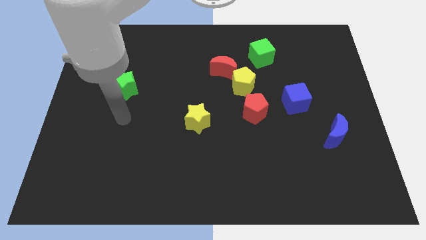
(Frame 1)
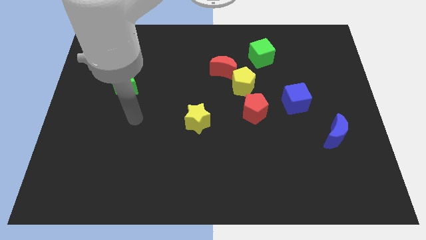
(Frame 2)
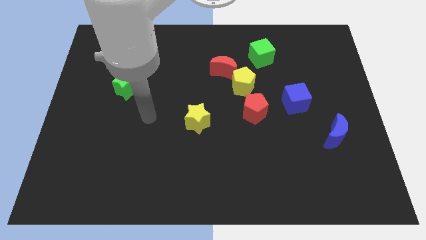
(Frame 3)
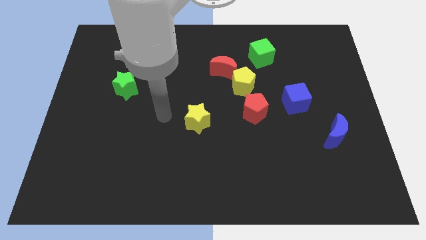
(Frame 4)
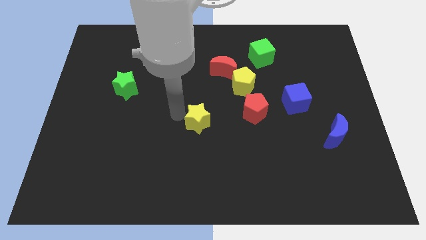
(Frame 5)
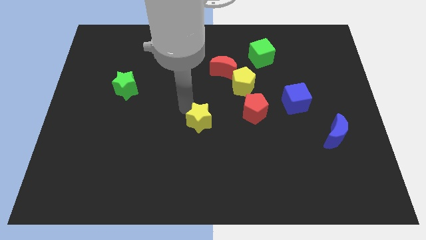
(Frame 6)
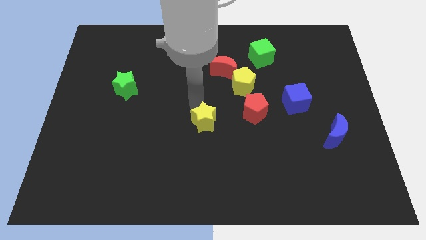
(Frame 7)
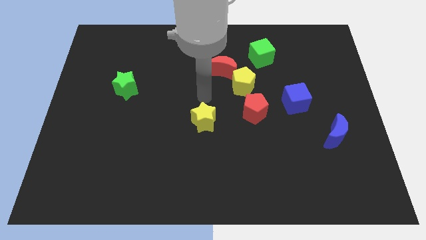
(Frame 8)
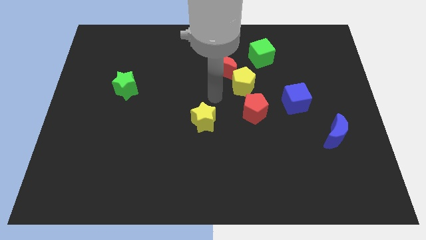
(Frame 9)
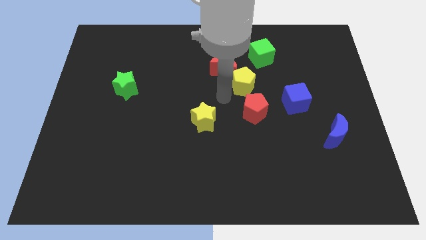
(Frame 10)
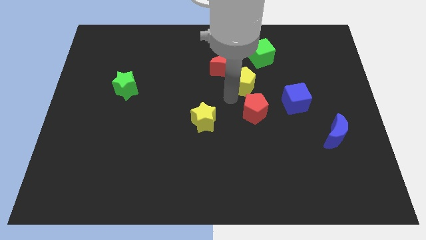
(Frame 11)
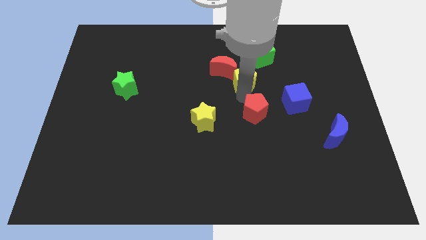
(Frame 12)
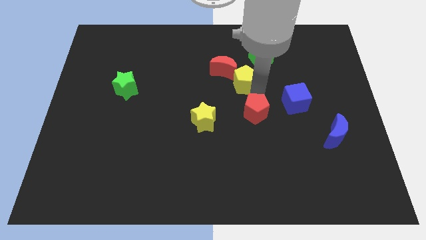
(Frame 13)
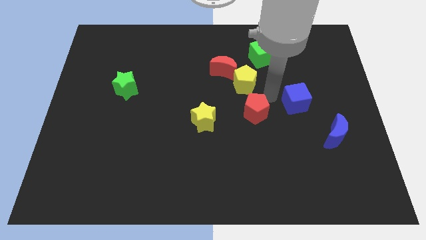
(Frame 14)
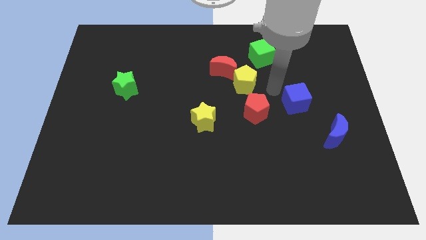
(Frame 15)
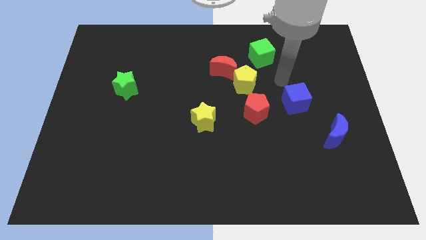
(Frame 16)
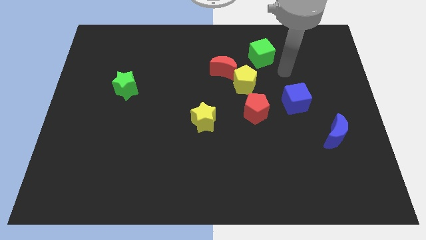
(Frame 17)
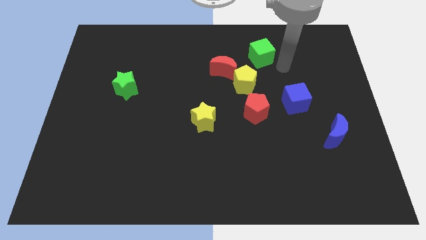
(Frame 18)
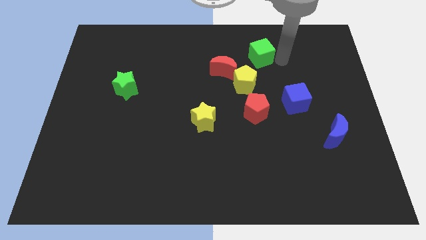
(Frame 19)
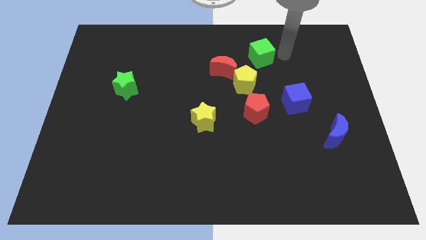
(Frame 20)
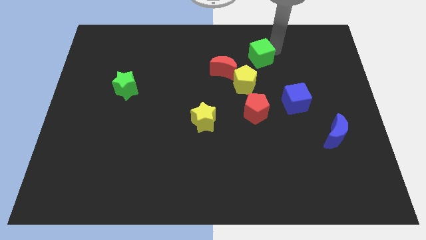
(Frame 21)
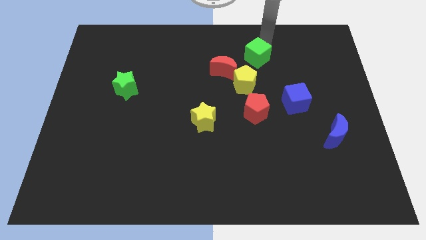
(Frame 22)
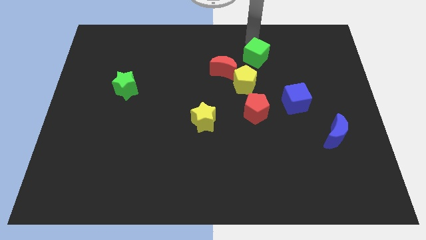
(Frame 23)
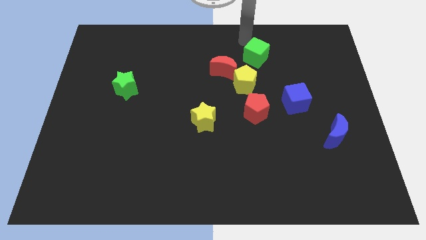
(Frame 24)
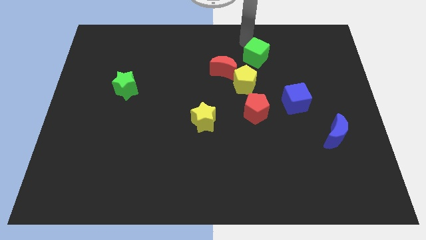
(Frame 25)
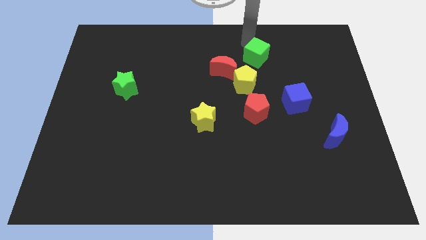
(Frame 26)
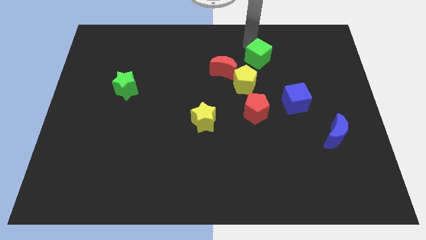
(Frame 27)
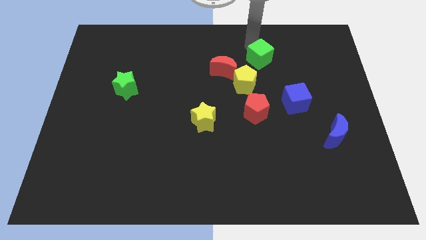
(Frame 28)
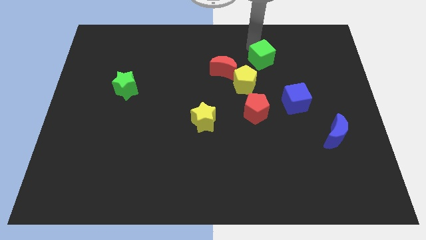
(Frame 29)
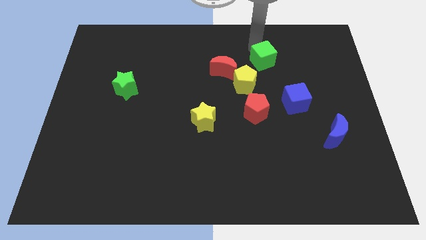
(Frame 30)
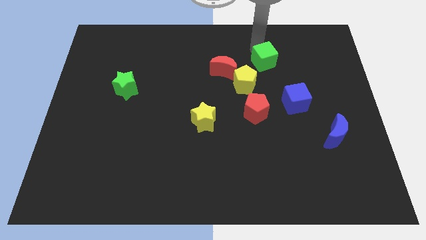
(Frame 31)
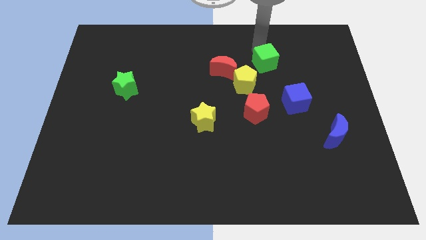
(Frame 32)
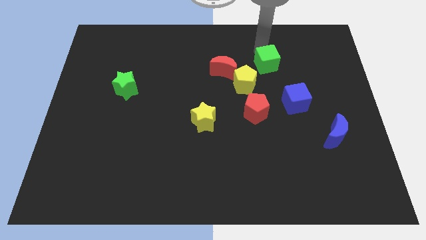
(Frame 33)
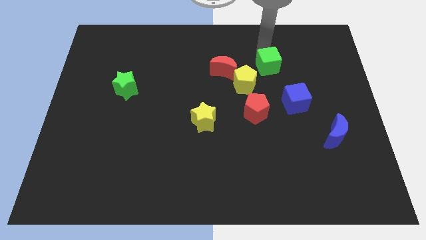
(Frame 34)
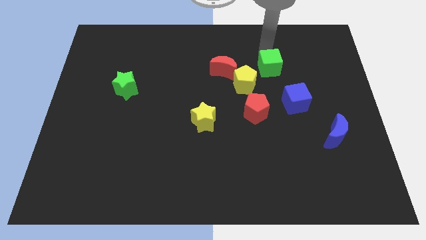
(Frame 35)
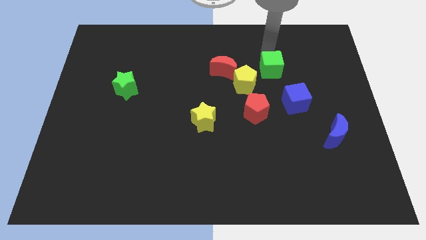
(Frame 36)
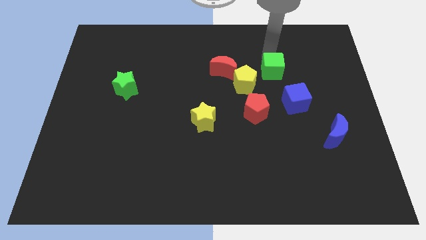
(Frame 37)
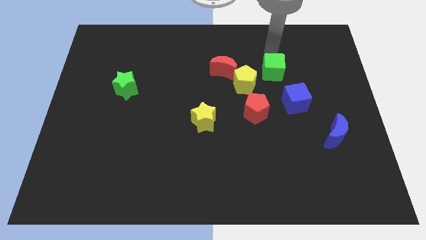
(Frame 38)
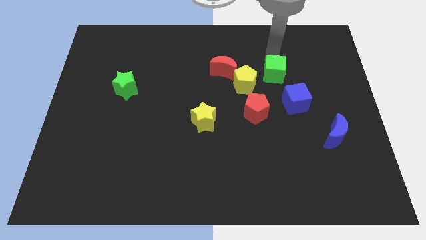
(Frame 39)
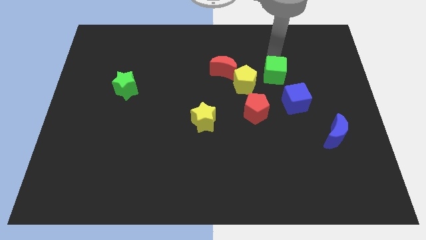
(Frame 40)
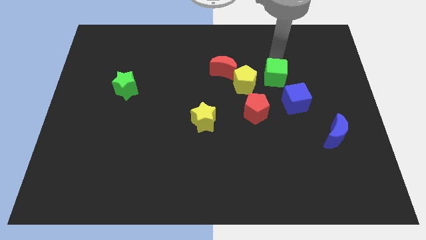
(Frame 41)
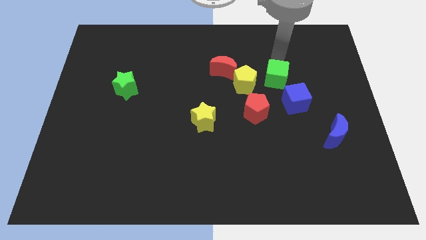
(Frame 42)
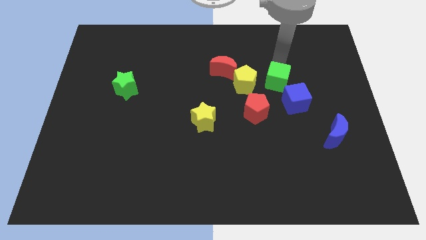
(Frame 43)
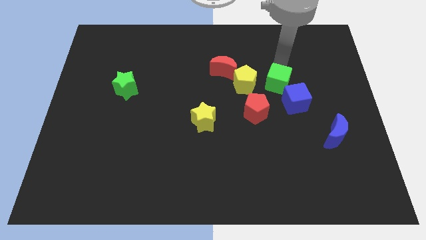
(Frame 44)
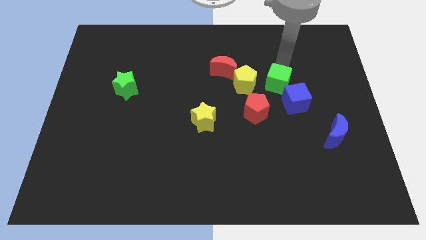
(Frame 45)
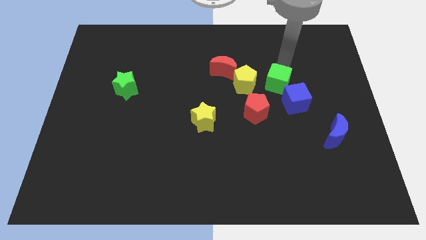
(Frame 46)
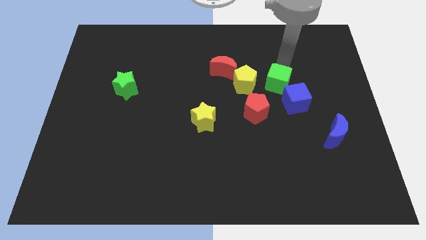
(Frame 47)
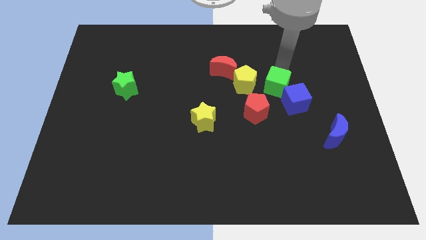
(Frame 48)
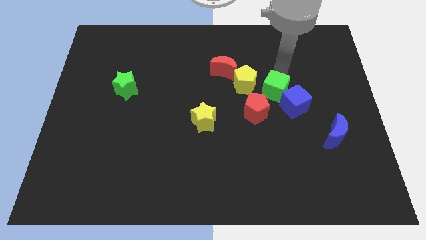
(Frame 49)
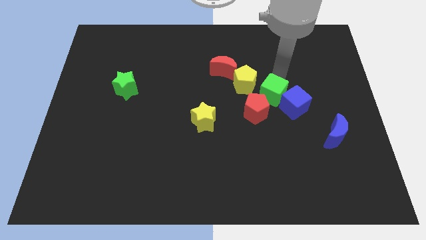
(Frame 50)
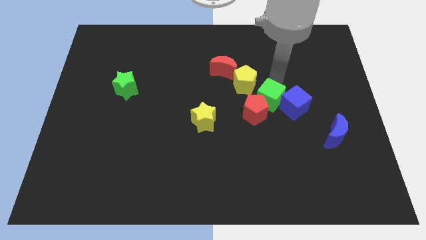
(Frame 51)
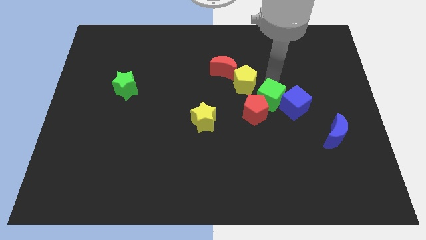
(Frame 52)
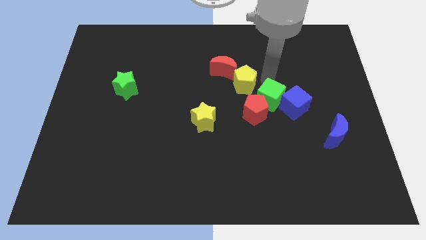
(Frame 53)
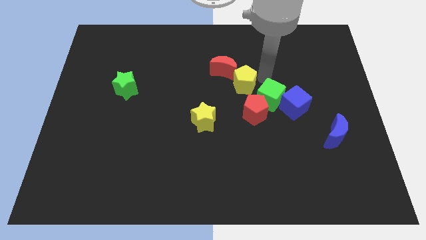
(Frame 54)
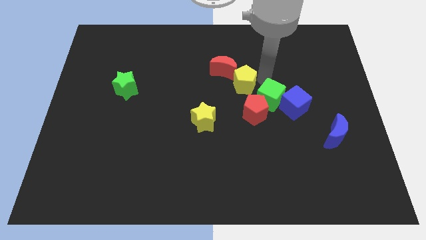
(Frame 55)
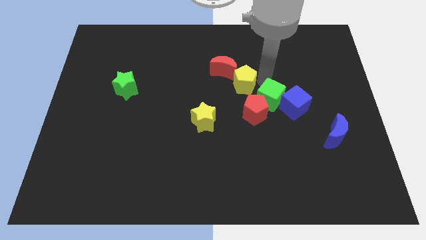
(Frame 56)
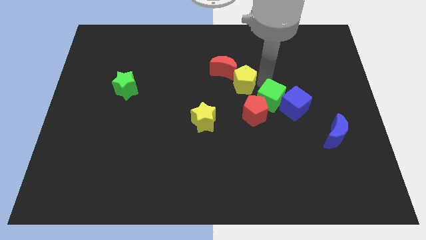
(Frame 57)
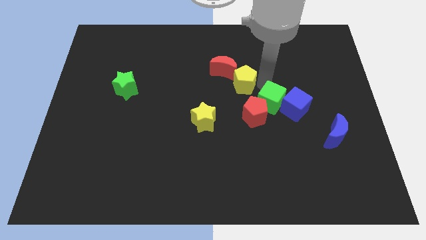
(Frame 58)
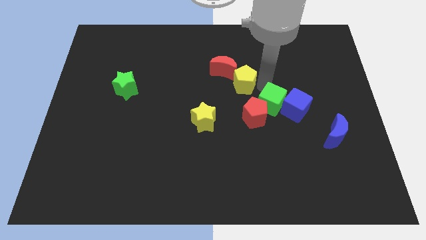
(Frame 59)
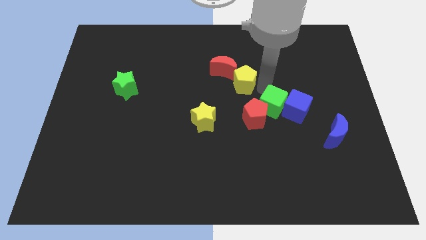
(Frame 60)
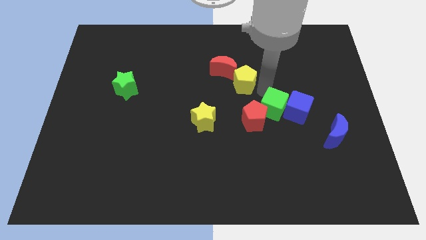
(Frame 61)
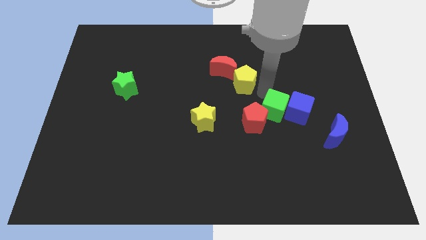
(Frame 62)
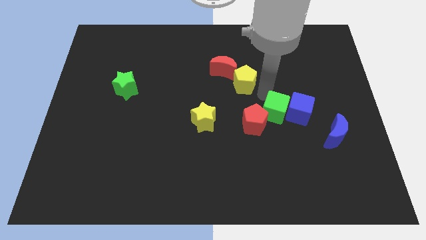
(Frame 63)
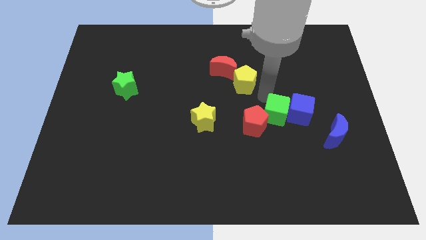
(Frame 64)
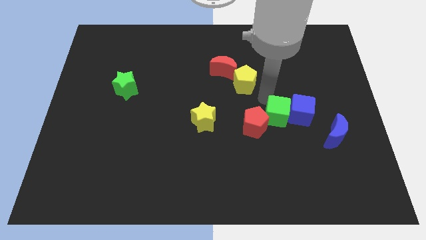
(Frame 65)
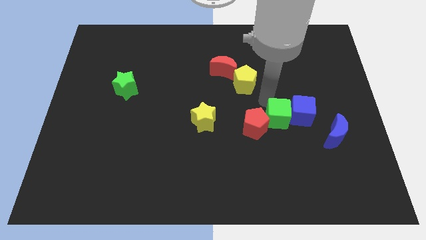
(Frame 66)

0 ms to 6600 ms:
slide the green cube down

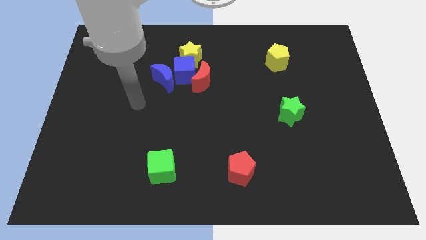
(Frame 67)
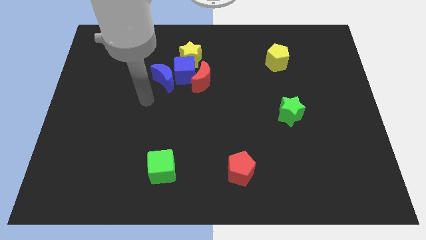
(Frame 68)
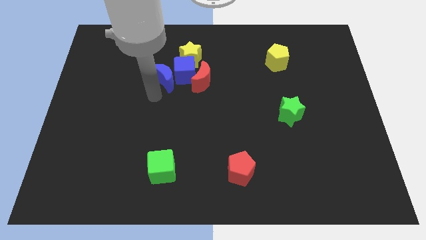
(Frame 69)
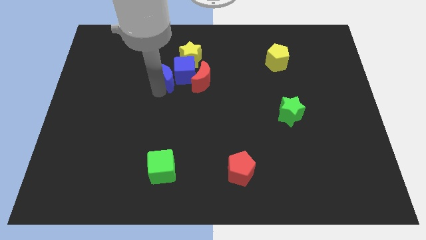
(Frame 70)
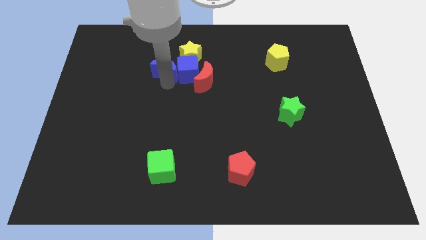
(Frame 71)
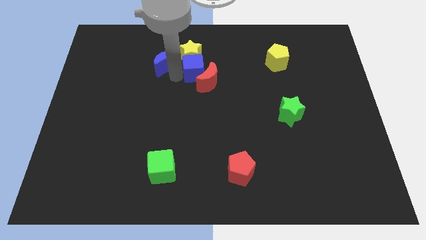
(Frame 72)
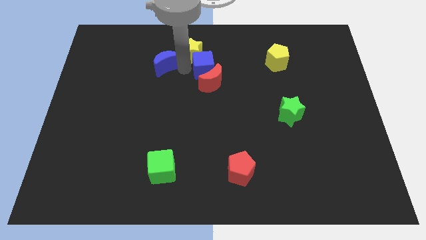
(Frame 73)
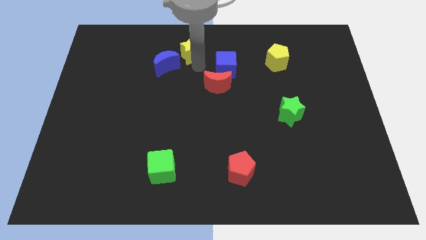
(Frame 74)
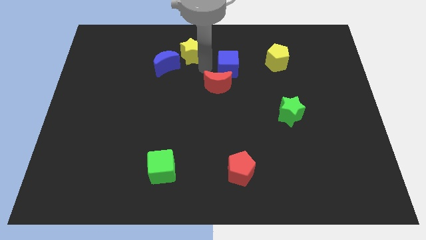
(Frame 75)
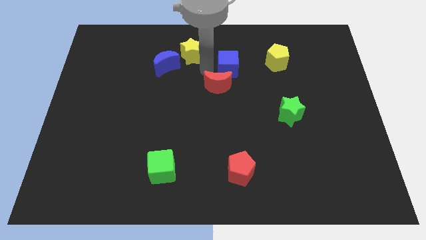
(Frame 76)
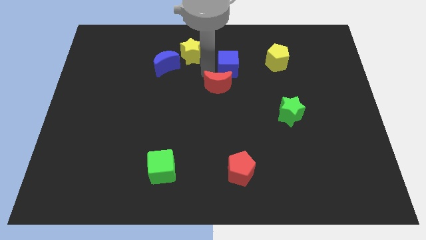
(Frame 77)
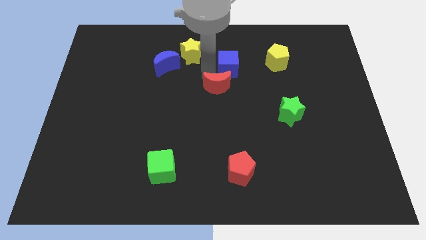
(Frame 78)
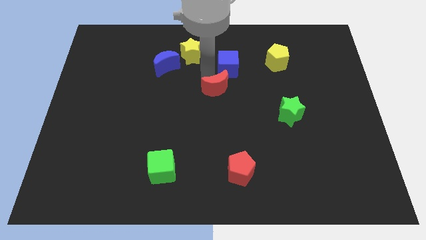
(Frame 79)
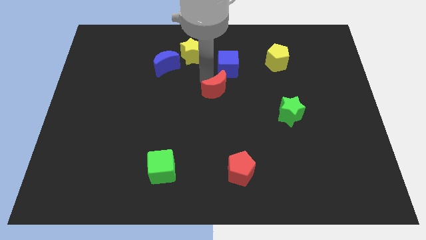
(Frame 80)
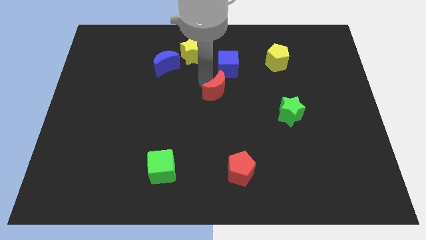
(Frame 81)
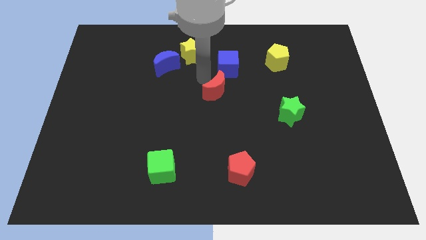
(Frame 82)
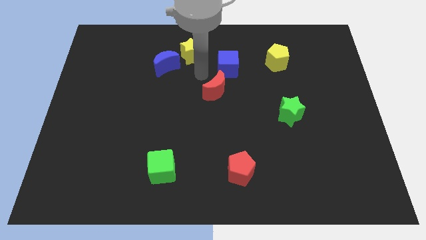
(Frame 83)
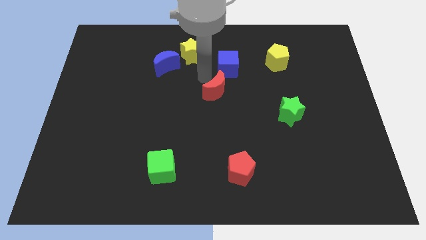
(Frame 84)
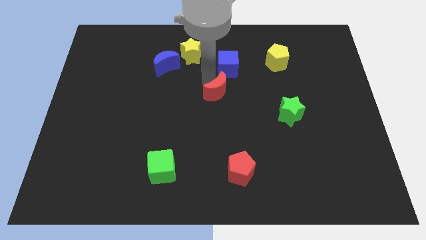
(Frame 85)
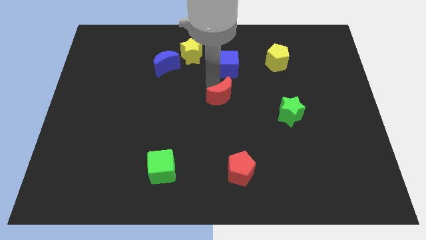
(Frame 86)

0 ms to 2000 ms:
push the red moon a little bit downwards and then right
